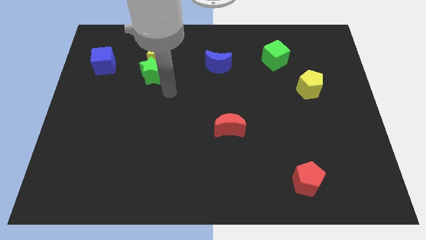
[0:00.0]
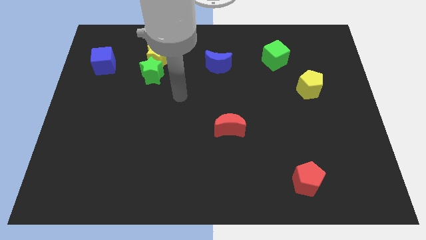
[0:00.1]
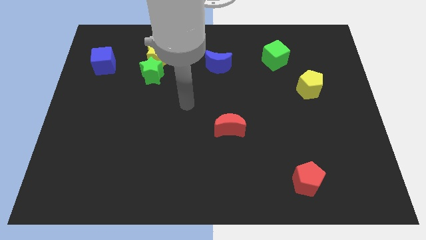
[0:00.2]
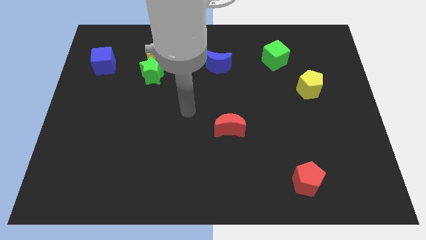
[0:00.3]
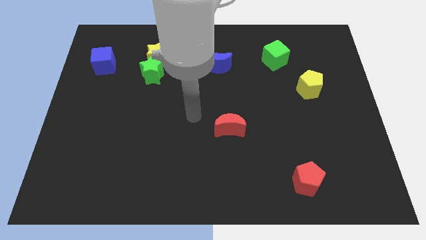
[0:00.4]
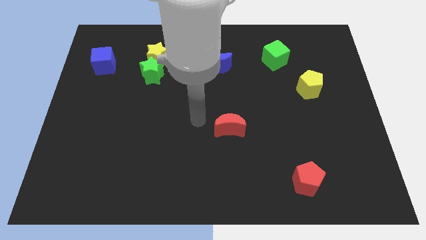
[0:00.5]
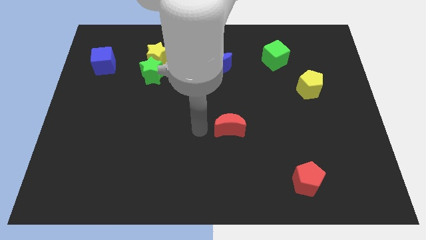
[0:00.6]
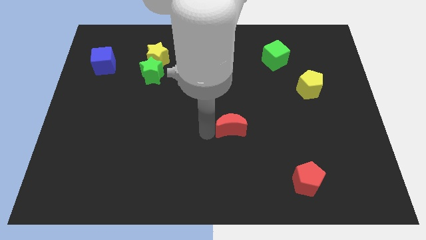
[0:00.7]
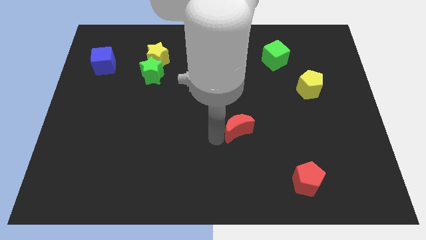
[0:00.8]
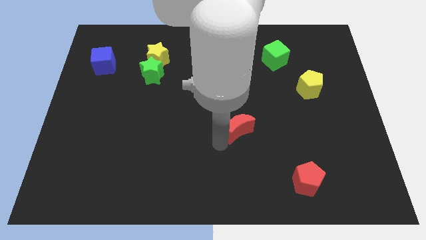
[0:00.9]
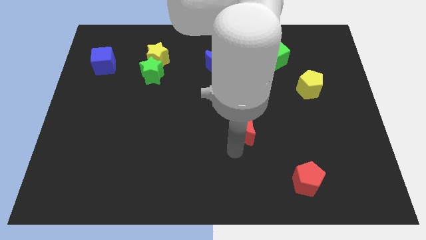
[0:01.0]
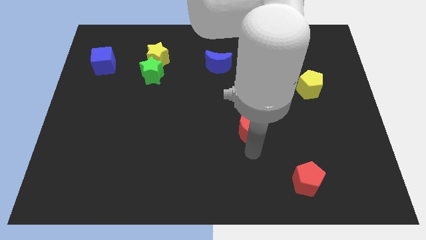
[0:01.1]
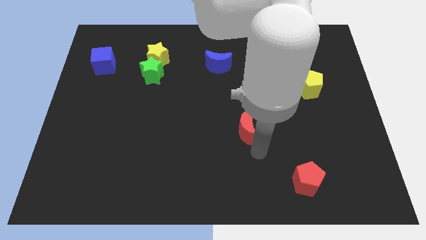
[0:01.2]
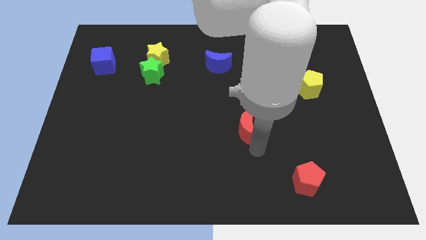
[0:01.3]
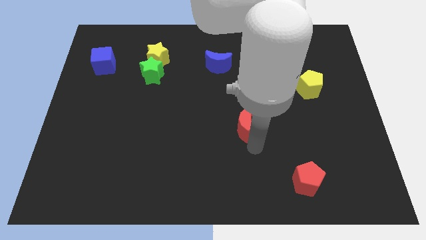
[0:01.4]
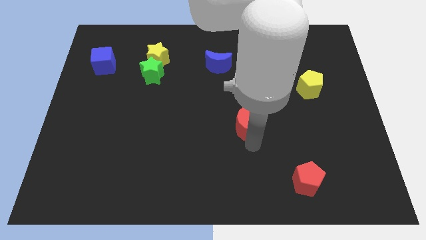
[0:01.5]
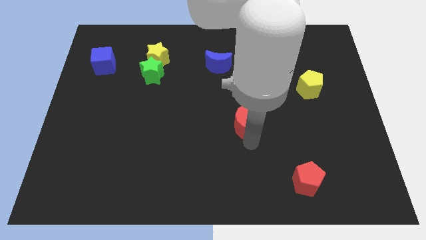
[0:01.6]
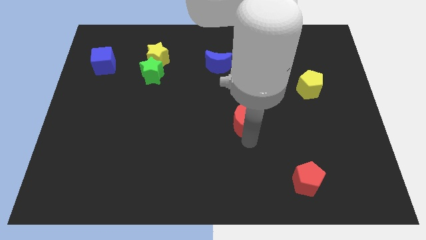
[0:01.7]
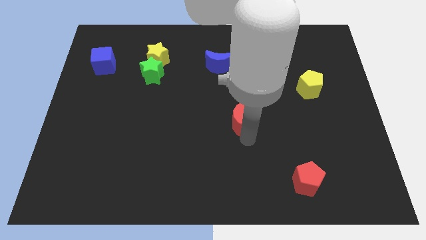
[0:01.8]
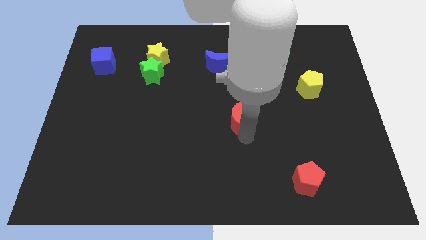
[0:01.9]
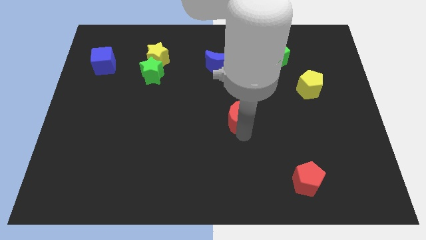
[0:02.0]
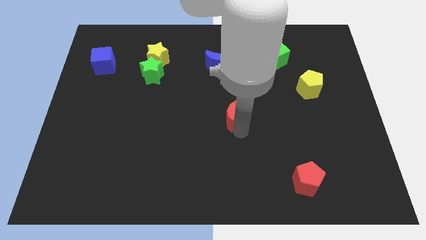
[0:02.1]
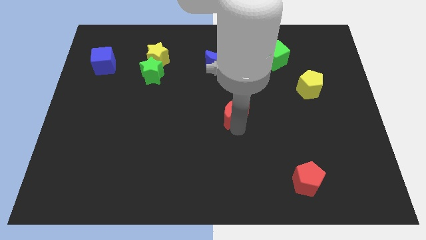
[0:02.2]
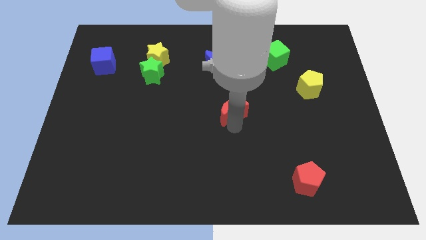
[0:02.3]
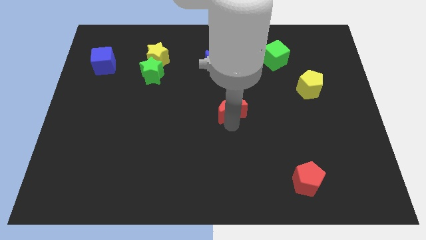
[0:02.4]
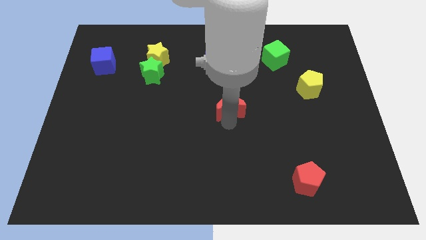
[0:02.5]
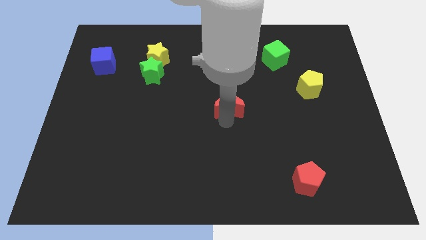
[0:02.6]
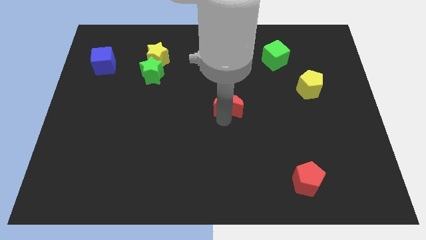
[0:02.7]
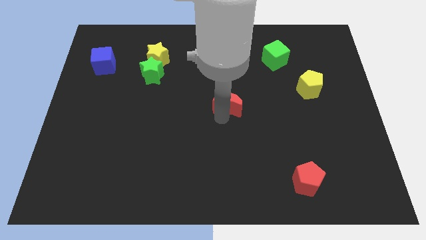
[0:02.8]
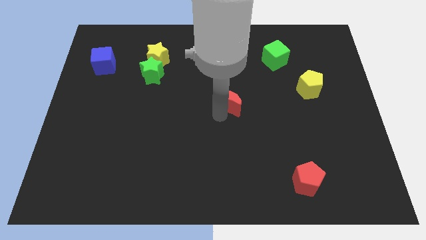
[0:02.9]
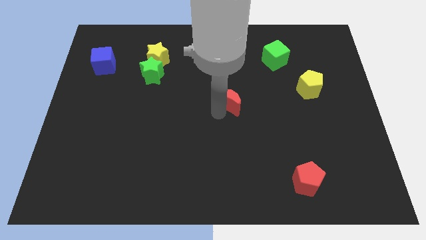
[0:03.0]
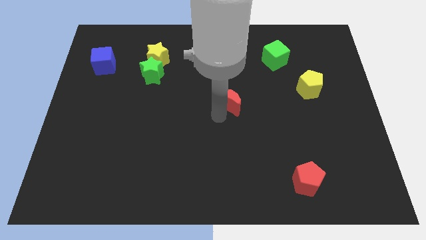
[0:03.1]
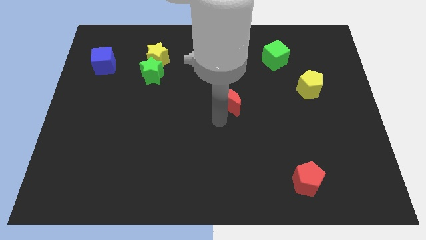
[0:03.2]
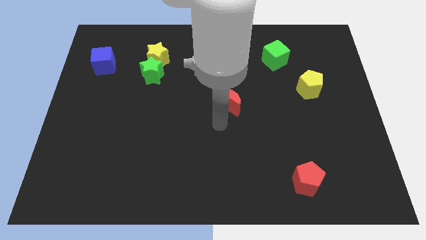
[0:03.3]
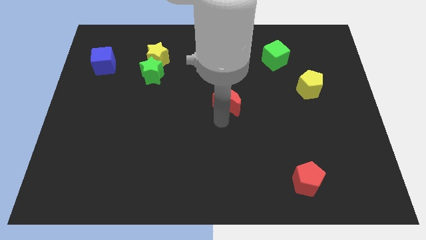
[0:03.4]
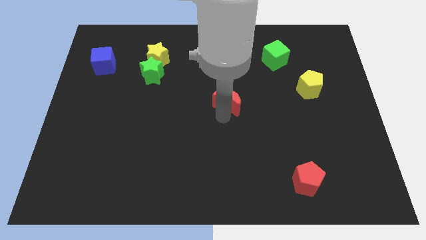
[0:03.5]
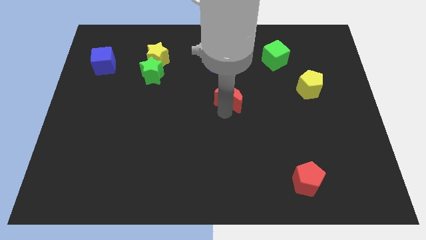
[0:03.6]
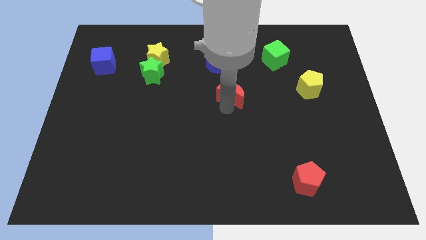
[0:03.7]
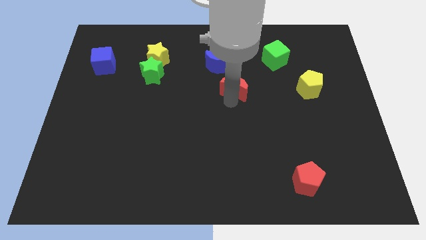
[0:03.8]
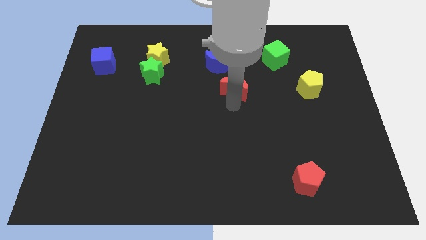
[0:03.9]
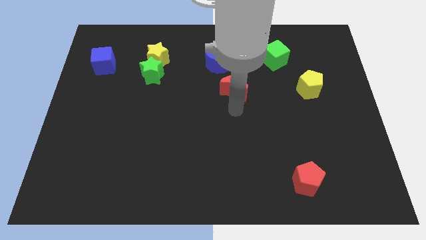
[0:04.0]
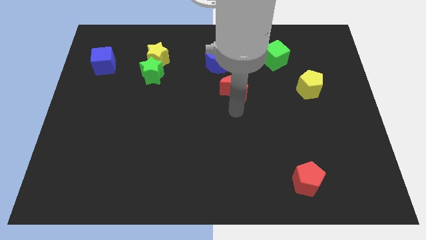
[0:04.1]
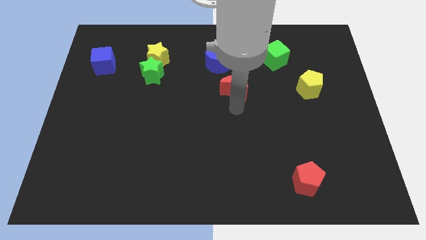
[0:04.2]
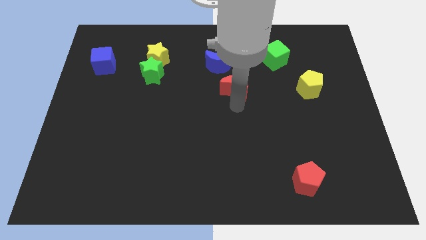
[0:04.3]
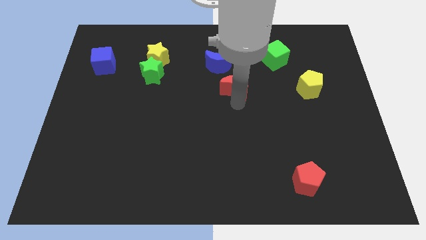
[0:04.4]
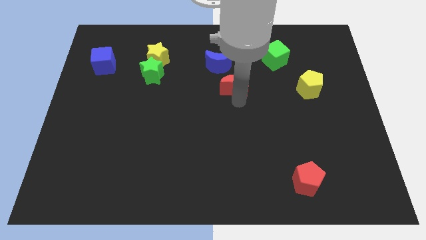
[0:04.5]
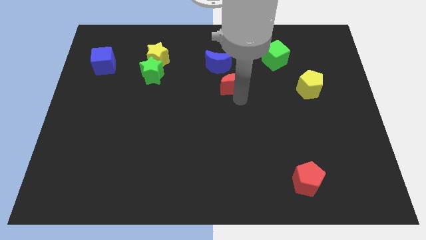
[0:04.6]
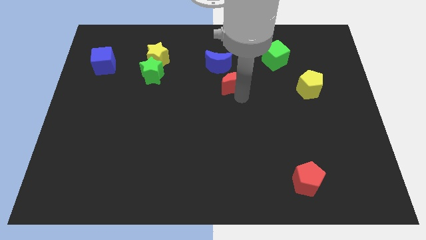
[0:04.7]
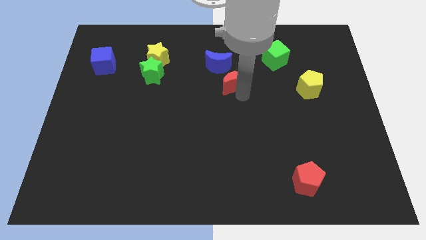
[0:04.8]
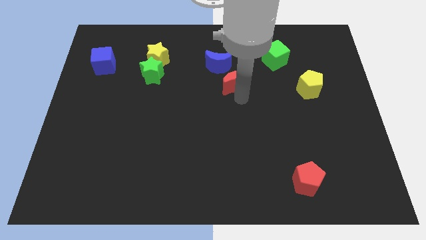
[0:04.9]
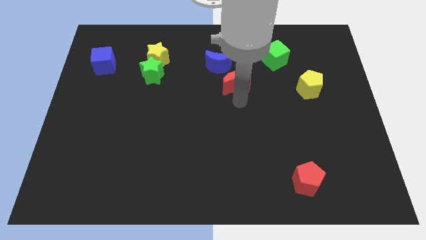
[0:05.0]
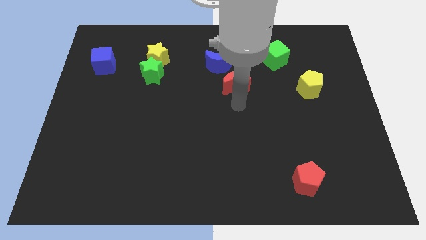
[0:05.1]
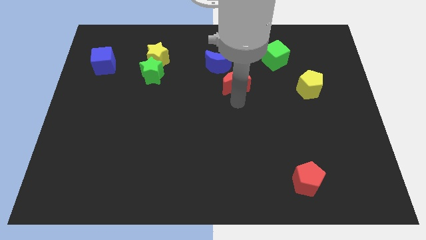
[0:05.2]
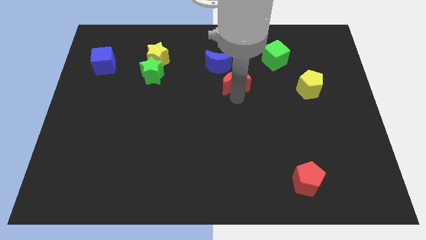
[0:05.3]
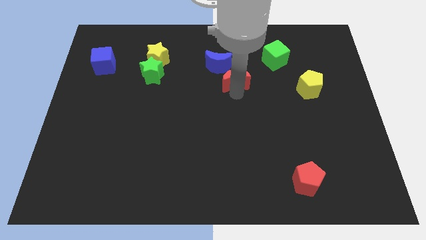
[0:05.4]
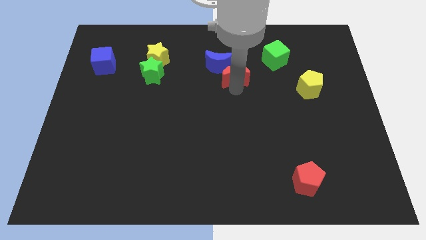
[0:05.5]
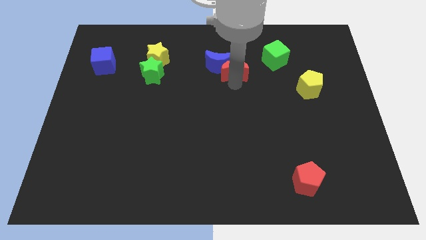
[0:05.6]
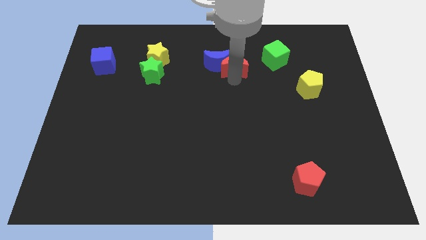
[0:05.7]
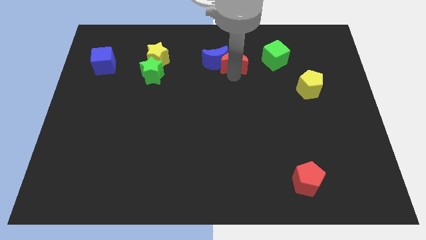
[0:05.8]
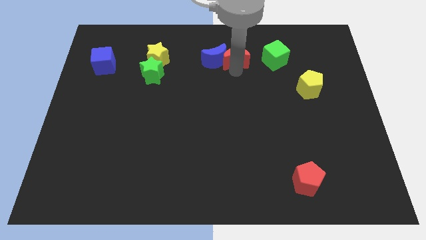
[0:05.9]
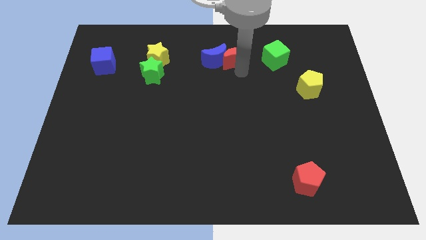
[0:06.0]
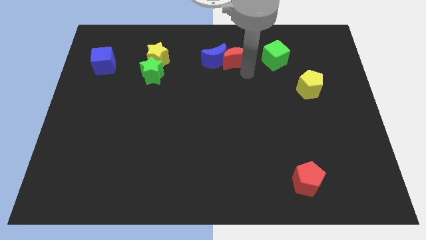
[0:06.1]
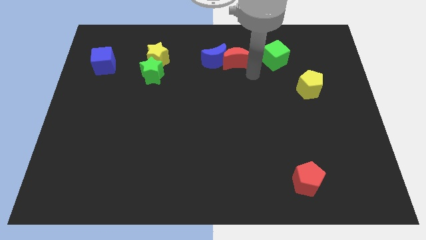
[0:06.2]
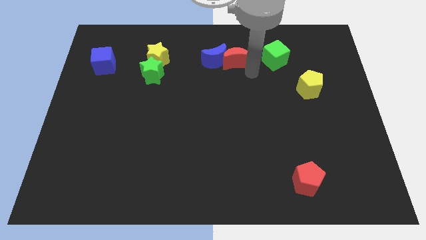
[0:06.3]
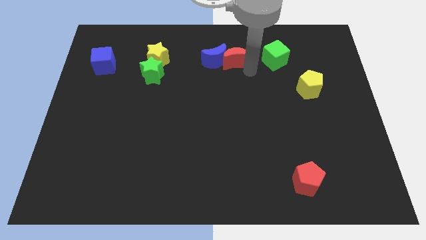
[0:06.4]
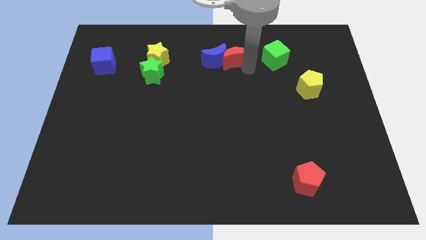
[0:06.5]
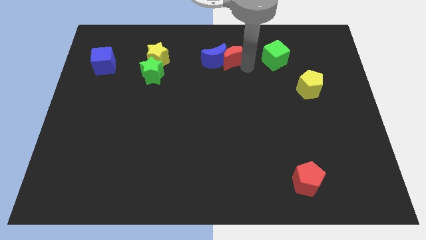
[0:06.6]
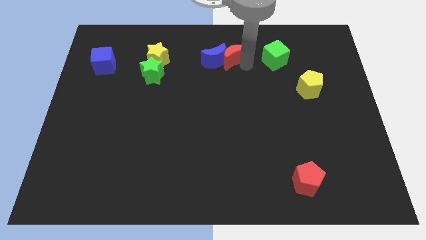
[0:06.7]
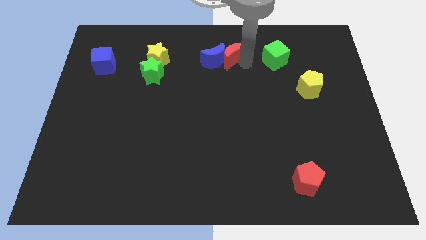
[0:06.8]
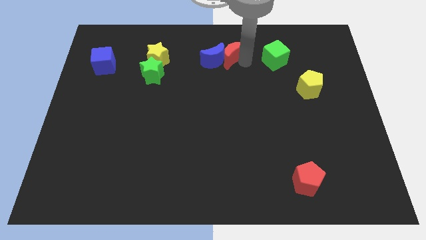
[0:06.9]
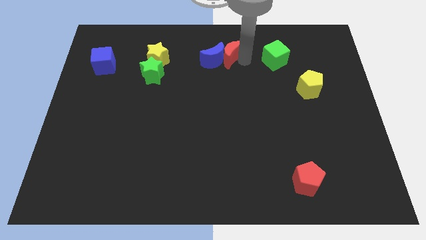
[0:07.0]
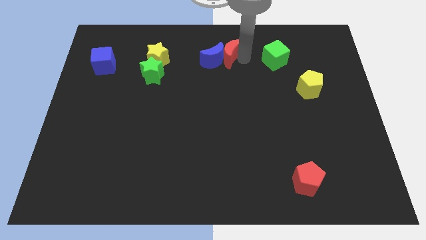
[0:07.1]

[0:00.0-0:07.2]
push the red moon to the top side
